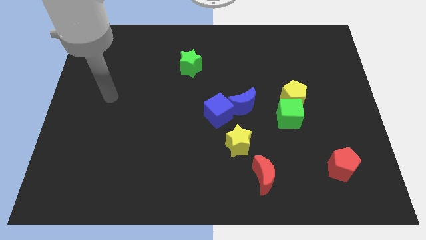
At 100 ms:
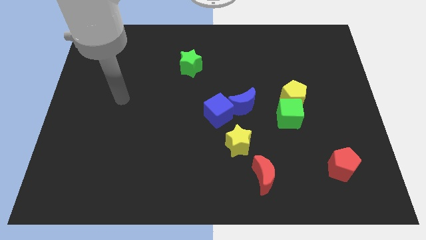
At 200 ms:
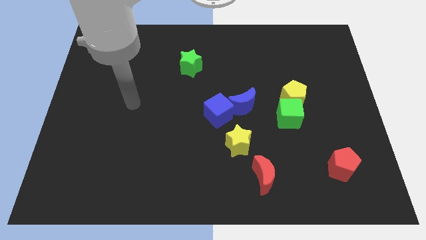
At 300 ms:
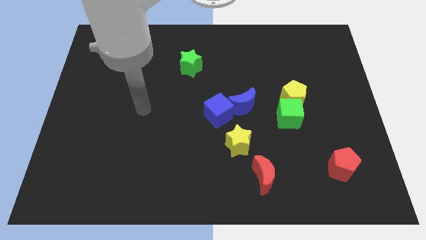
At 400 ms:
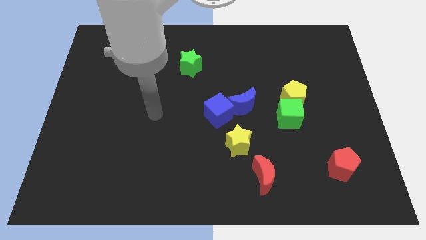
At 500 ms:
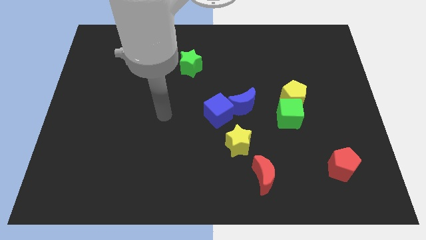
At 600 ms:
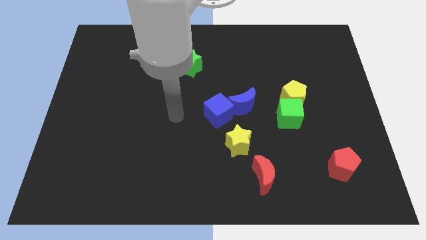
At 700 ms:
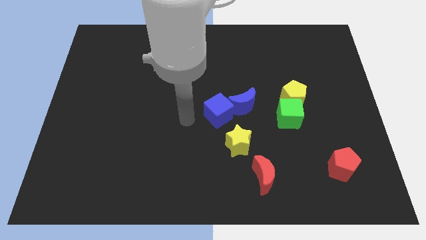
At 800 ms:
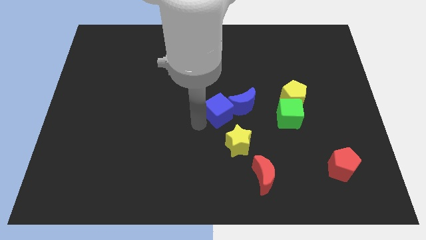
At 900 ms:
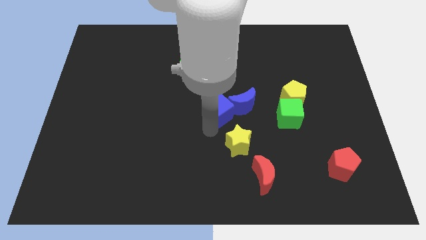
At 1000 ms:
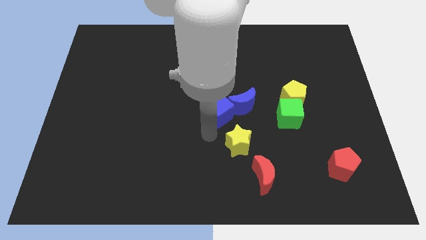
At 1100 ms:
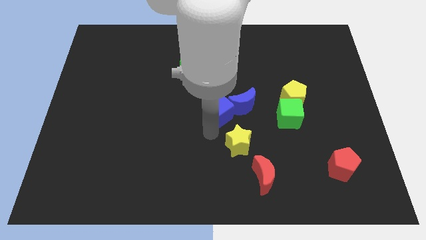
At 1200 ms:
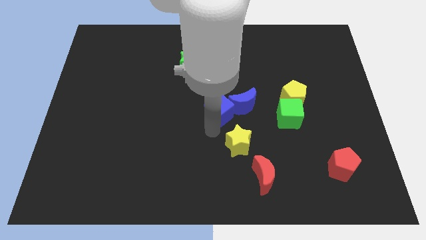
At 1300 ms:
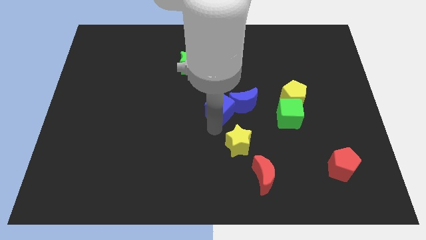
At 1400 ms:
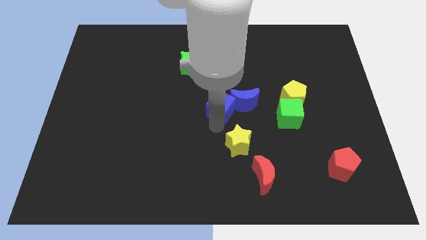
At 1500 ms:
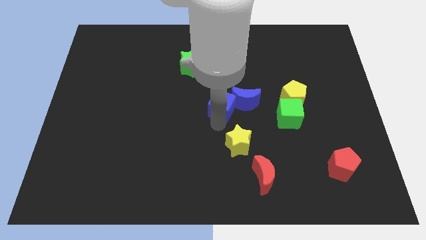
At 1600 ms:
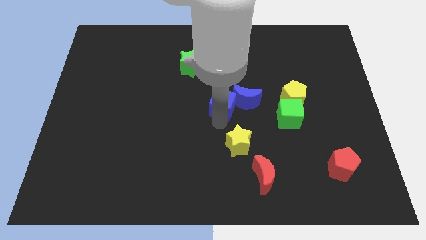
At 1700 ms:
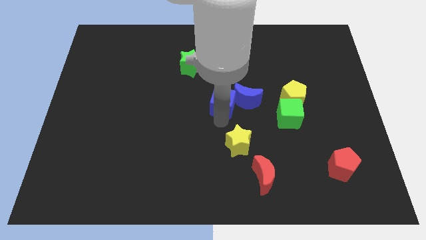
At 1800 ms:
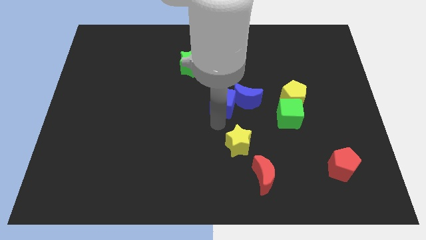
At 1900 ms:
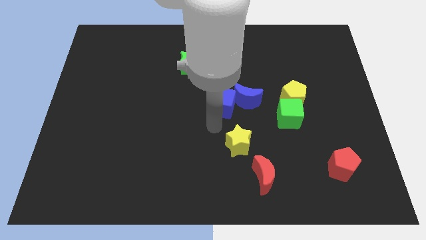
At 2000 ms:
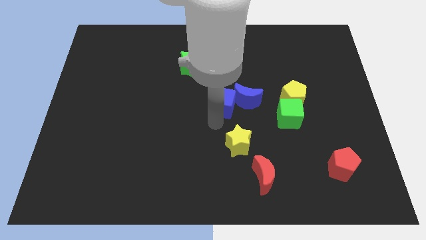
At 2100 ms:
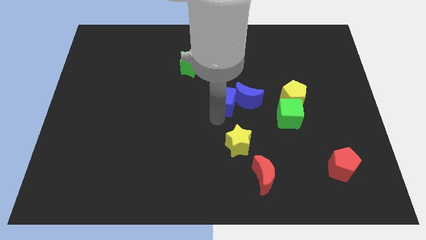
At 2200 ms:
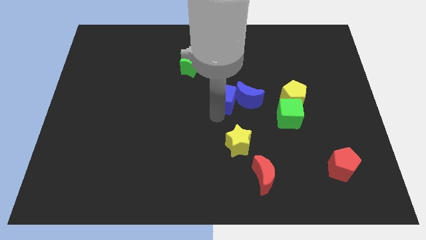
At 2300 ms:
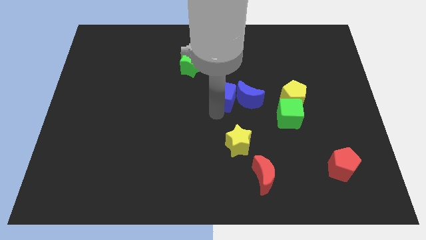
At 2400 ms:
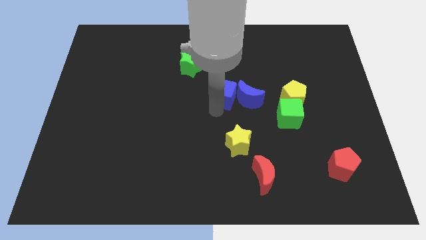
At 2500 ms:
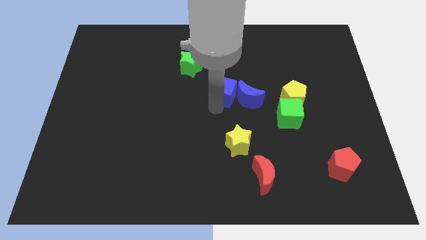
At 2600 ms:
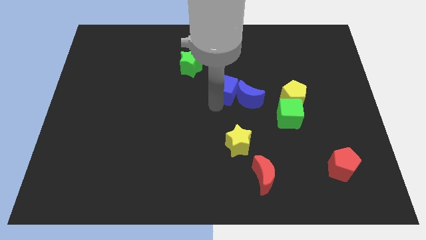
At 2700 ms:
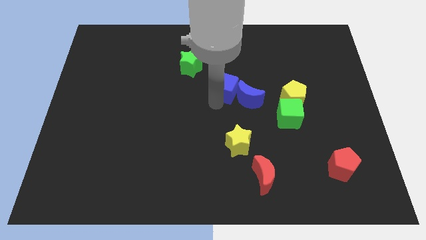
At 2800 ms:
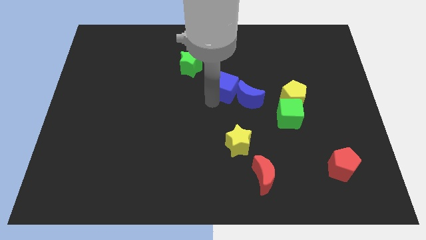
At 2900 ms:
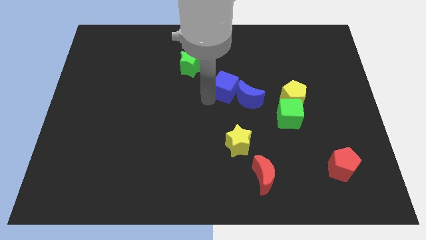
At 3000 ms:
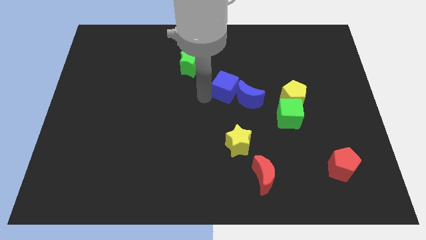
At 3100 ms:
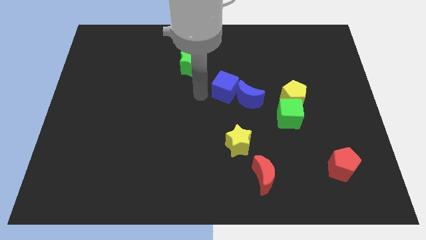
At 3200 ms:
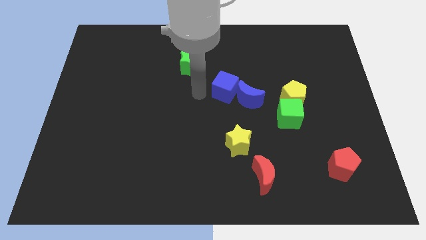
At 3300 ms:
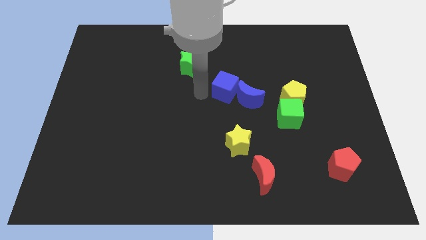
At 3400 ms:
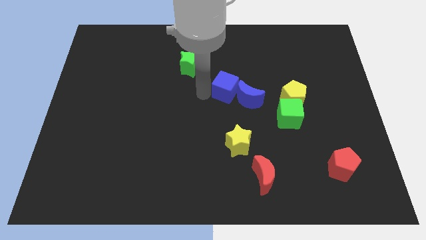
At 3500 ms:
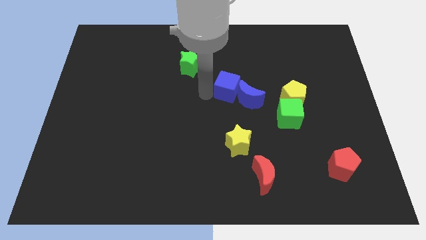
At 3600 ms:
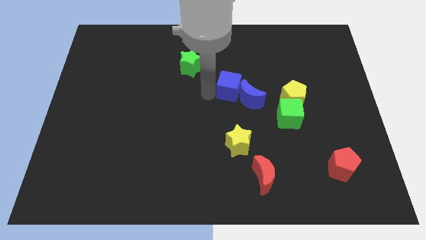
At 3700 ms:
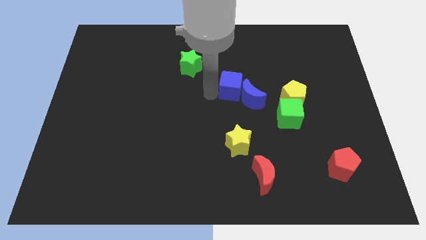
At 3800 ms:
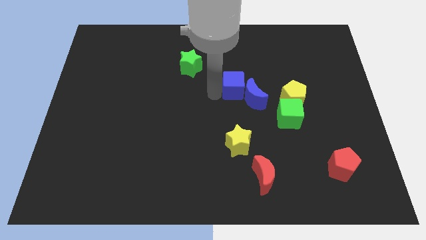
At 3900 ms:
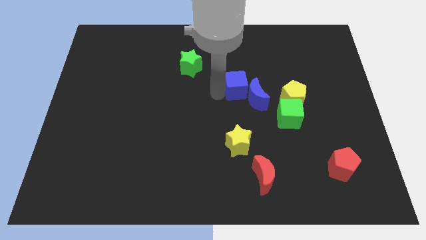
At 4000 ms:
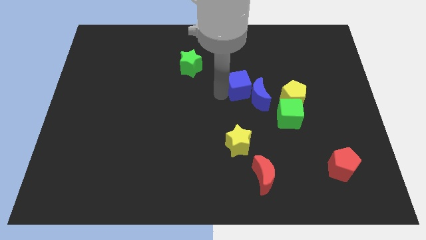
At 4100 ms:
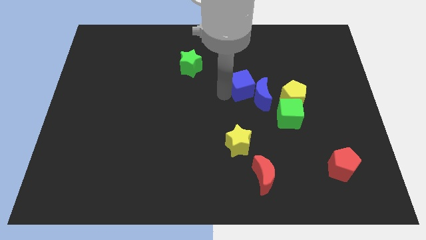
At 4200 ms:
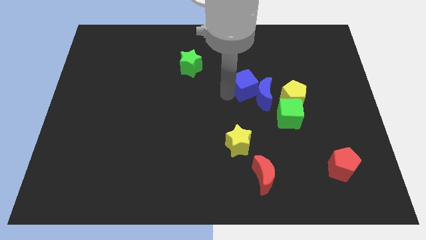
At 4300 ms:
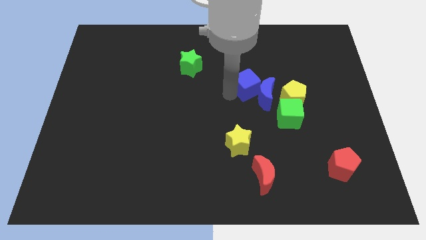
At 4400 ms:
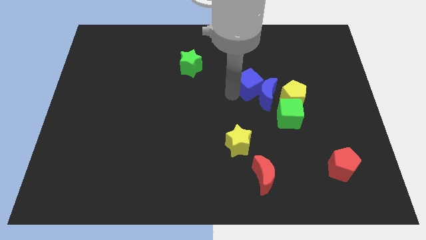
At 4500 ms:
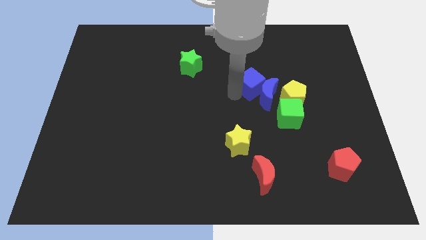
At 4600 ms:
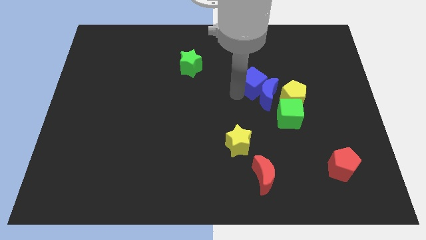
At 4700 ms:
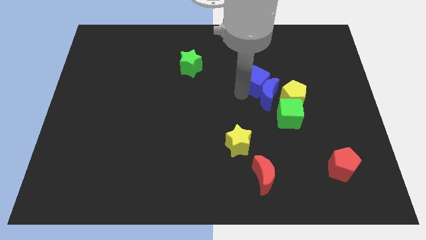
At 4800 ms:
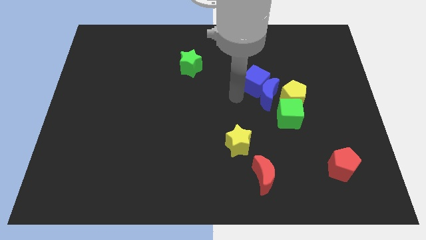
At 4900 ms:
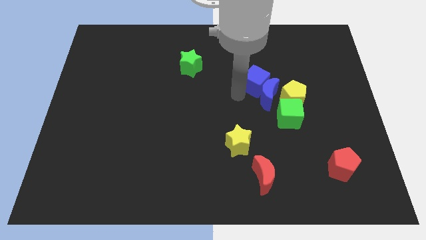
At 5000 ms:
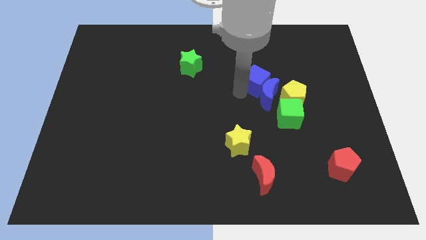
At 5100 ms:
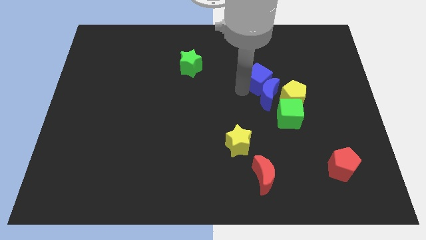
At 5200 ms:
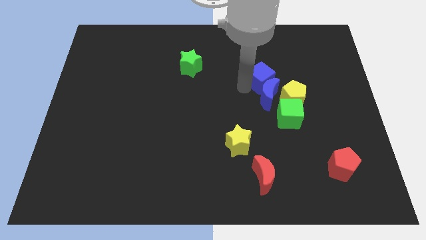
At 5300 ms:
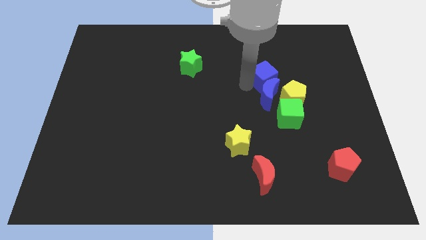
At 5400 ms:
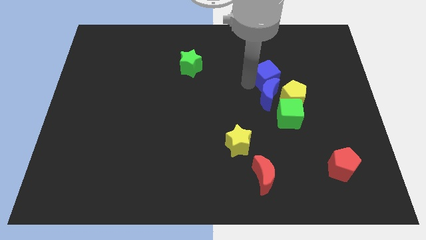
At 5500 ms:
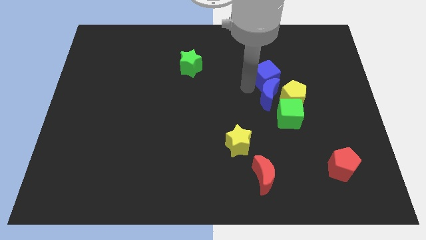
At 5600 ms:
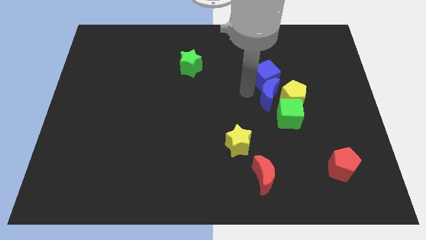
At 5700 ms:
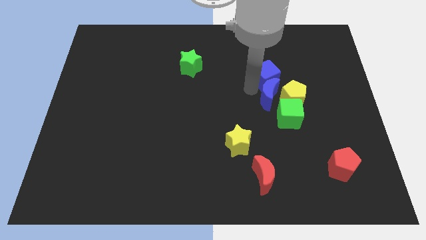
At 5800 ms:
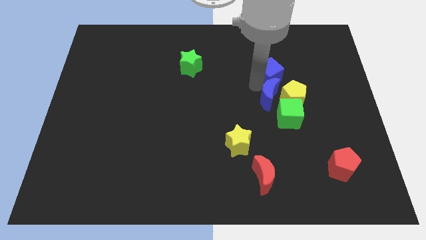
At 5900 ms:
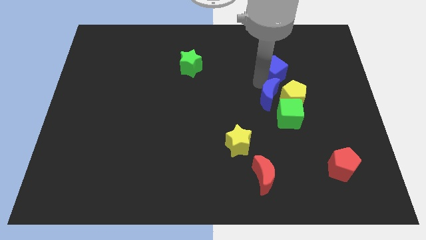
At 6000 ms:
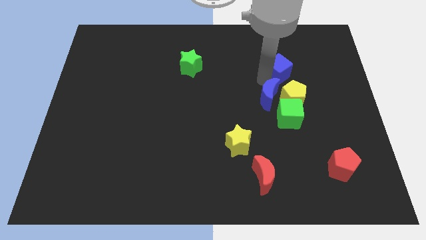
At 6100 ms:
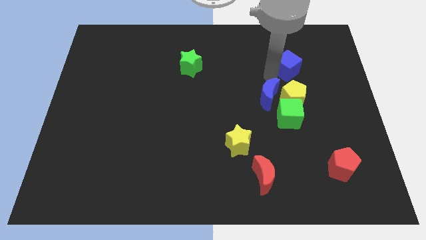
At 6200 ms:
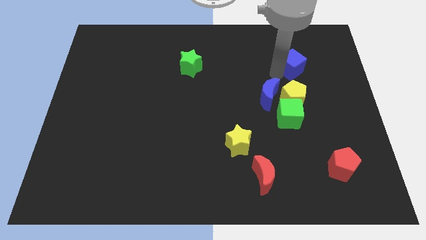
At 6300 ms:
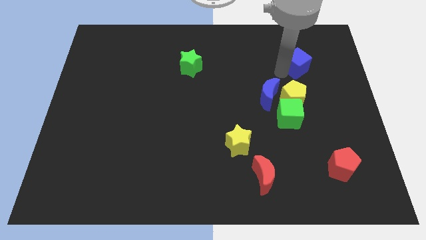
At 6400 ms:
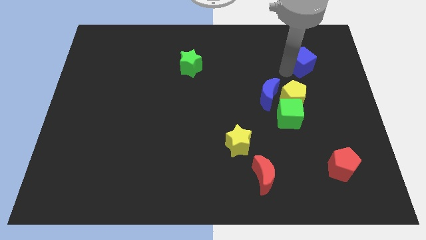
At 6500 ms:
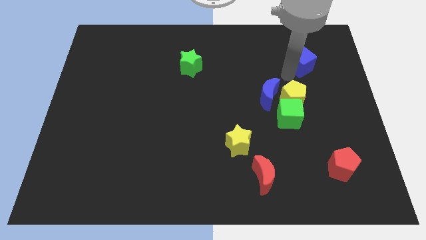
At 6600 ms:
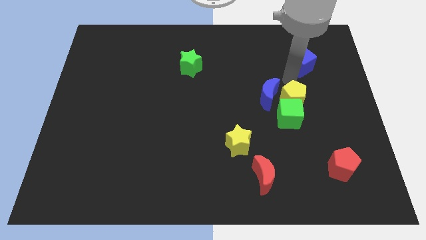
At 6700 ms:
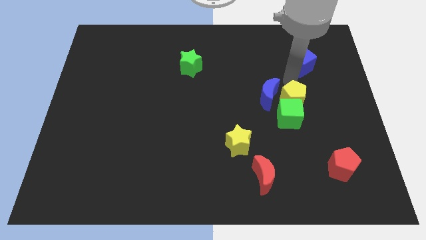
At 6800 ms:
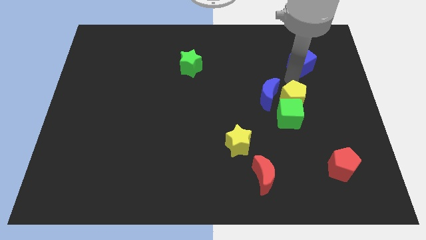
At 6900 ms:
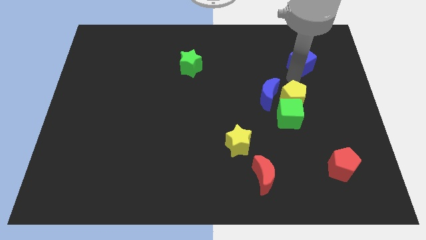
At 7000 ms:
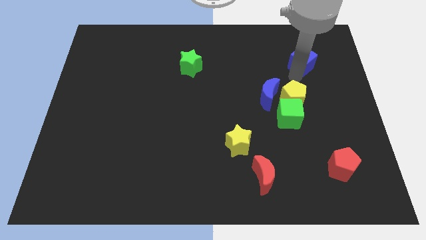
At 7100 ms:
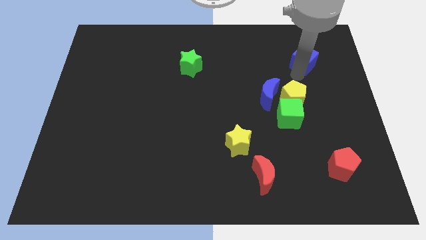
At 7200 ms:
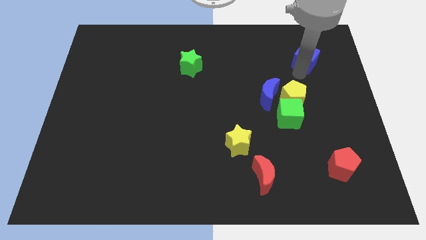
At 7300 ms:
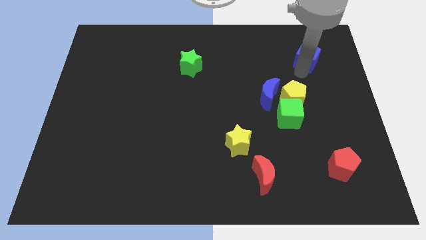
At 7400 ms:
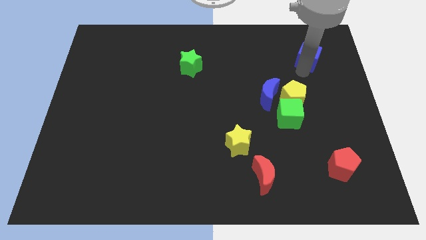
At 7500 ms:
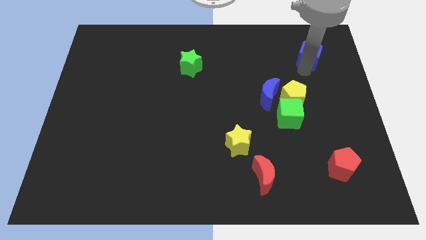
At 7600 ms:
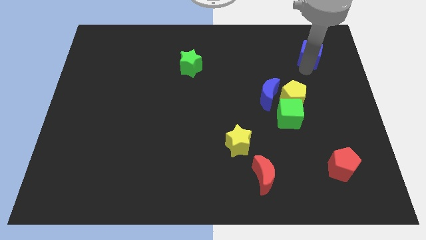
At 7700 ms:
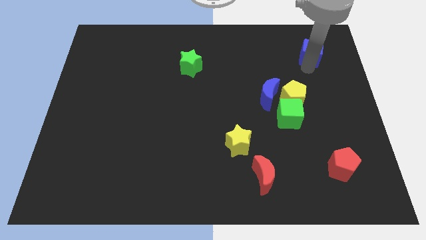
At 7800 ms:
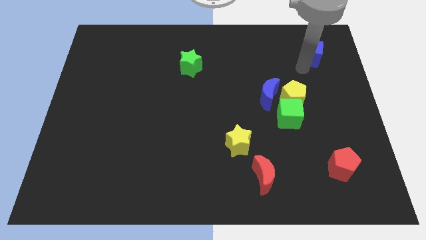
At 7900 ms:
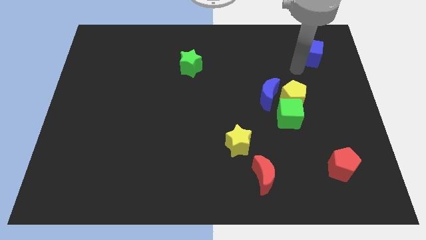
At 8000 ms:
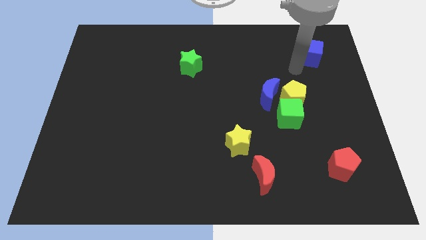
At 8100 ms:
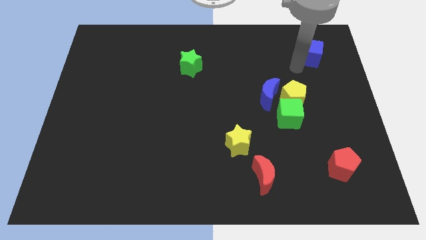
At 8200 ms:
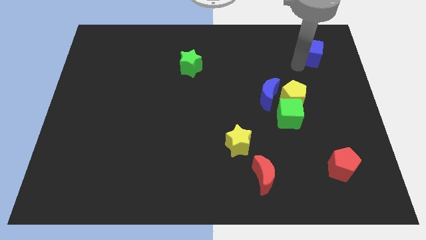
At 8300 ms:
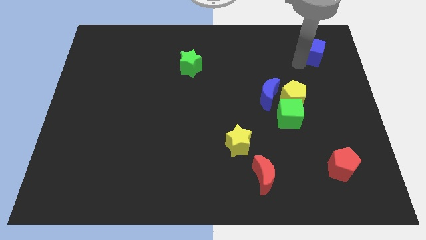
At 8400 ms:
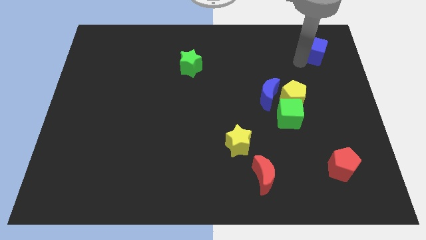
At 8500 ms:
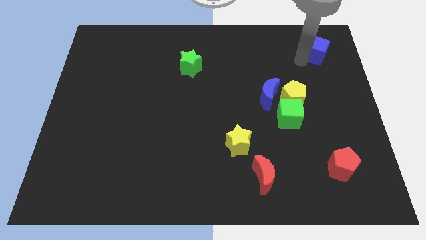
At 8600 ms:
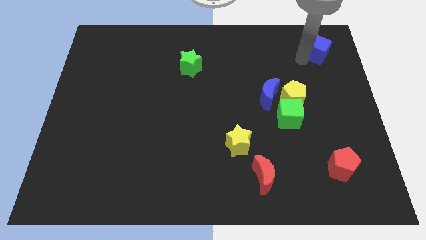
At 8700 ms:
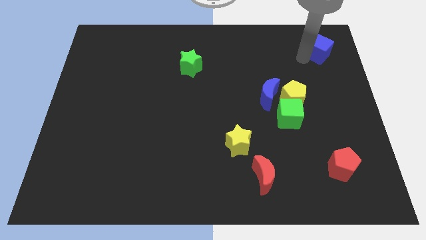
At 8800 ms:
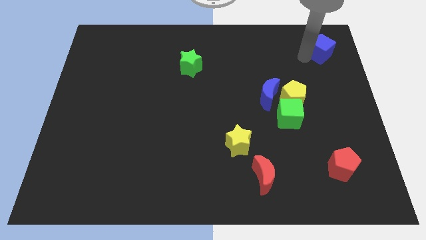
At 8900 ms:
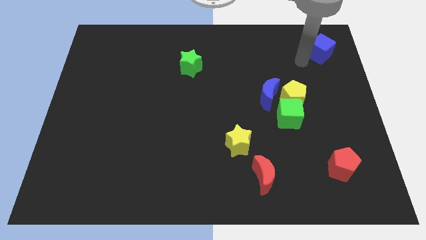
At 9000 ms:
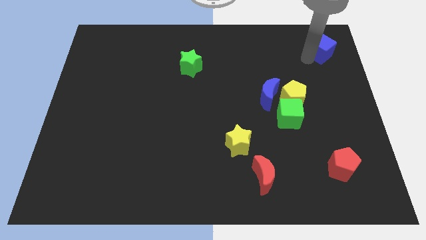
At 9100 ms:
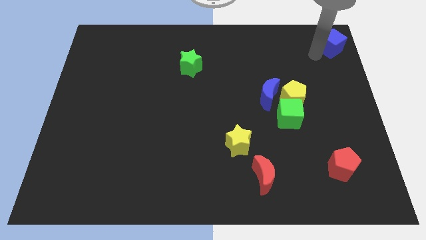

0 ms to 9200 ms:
move the blue cube to the top right
